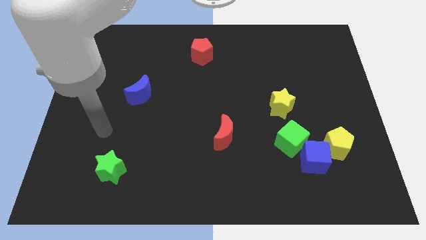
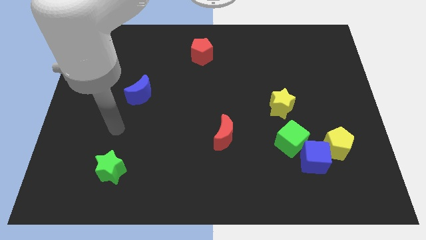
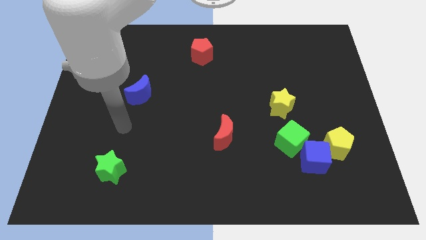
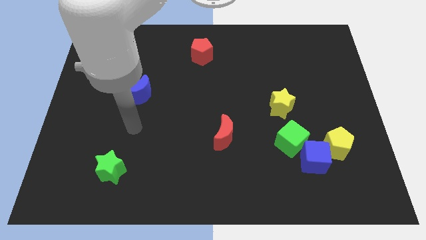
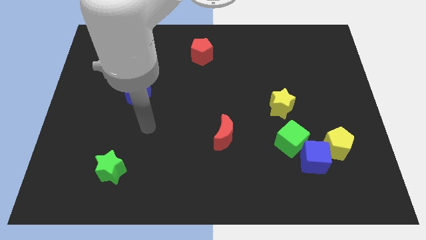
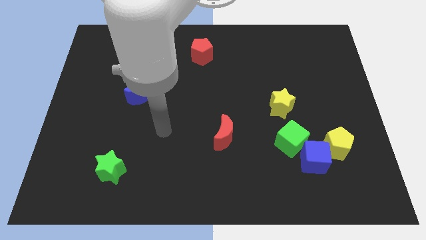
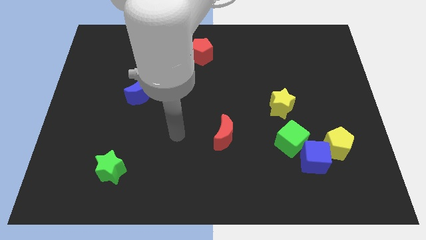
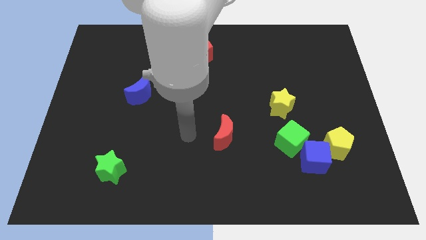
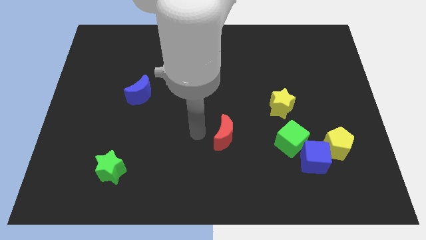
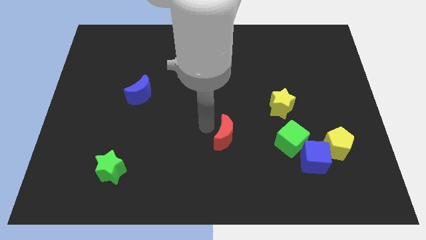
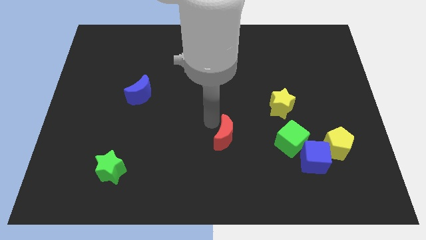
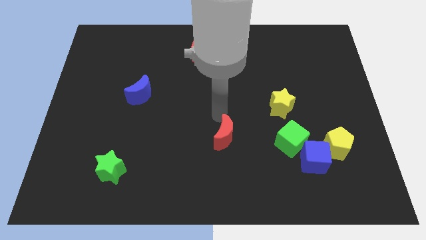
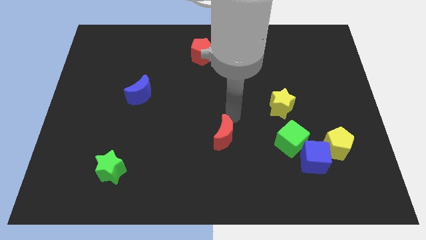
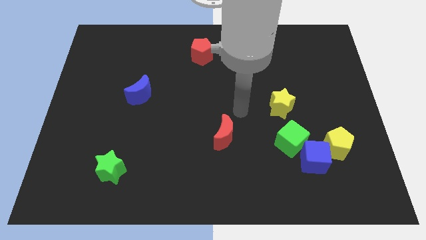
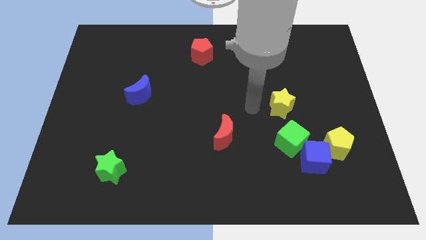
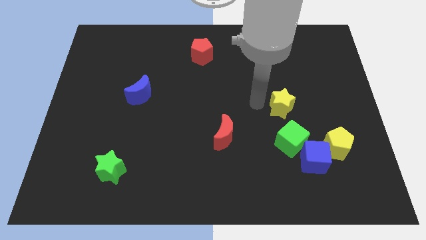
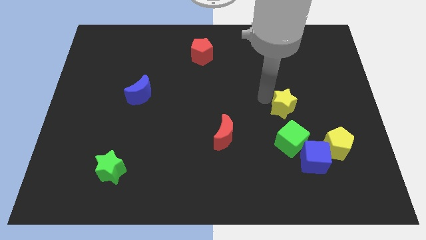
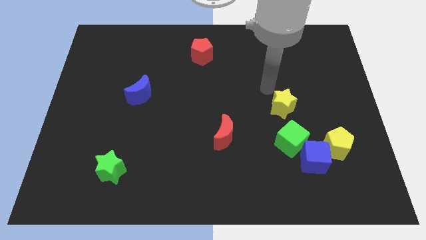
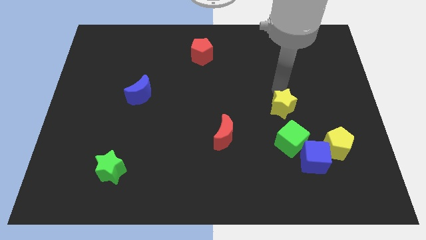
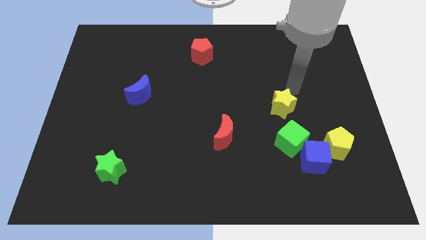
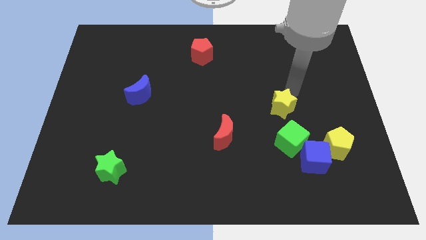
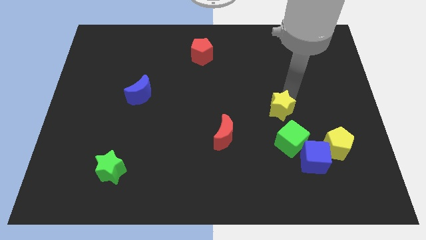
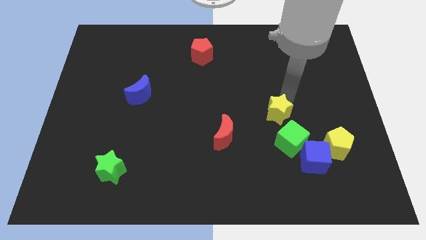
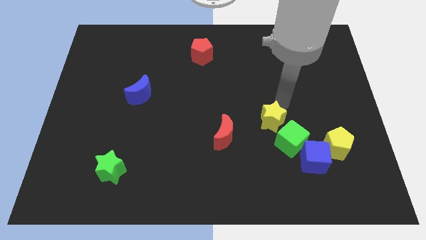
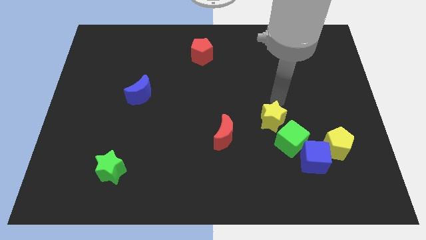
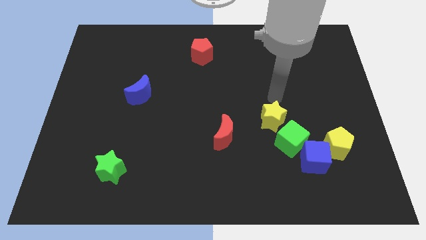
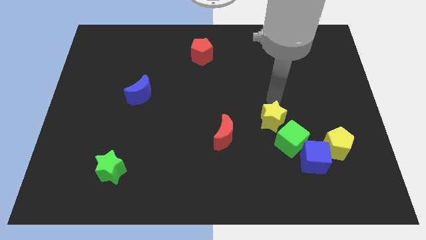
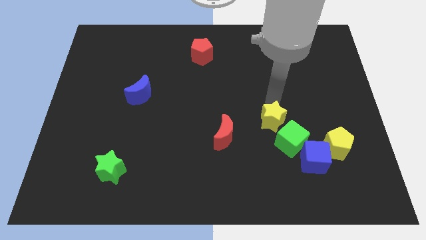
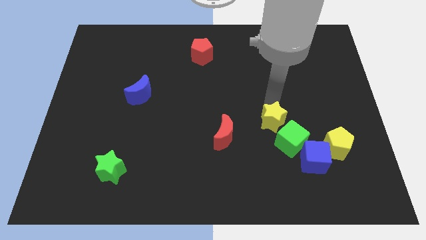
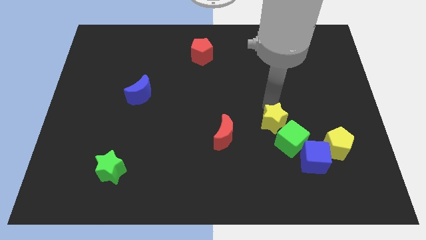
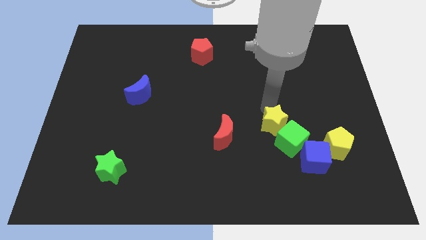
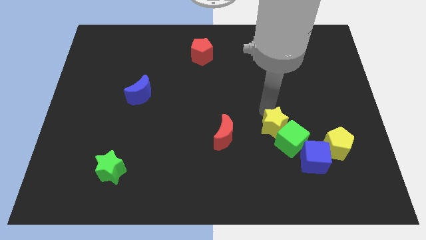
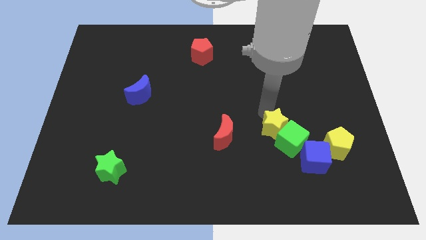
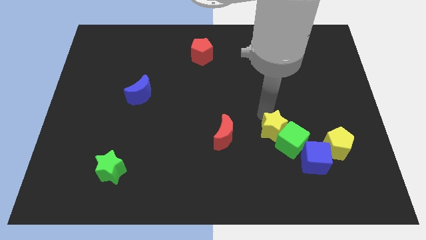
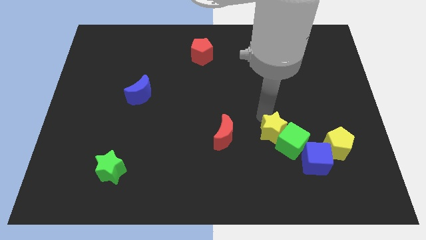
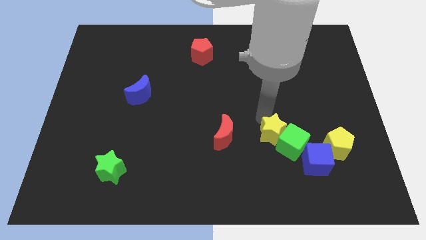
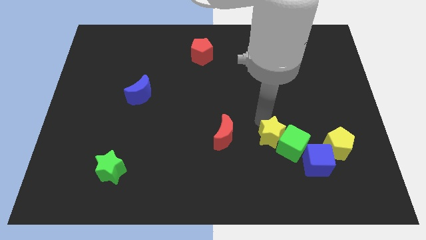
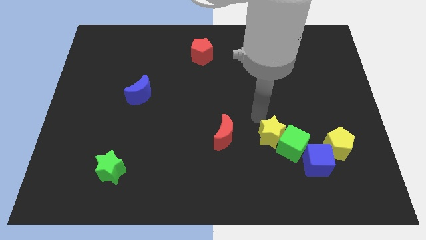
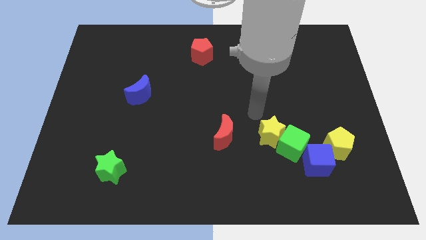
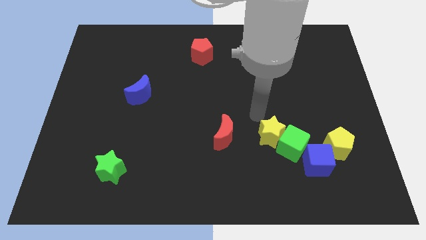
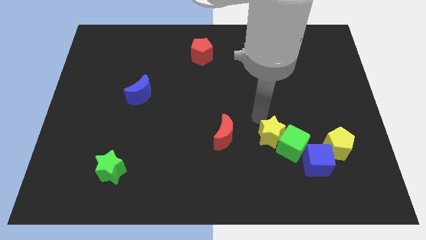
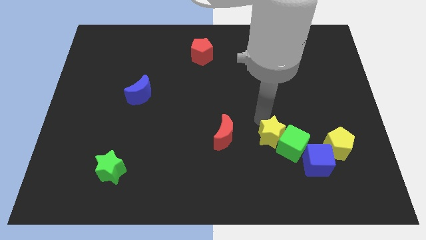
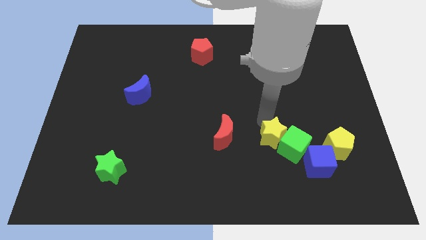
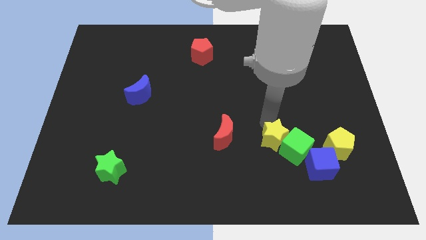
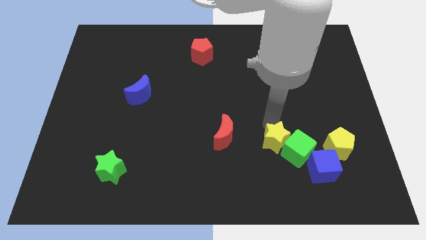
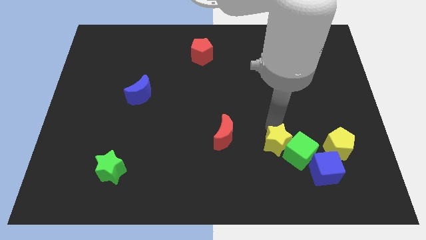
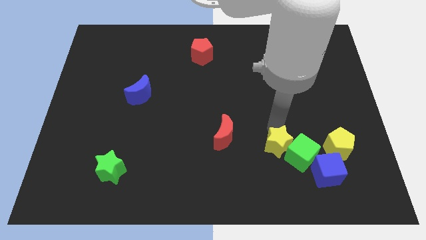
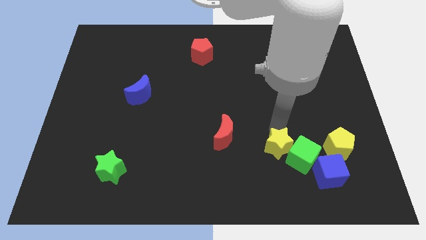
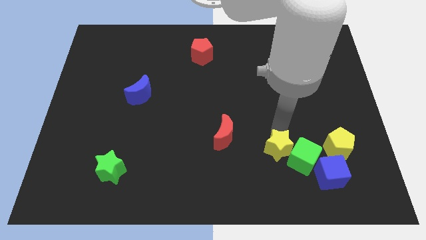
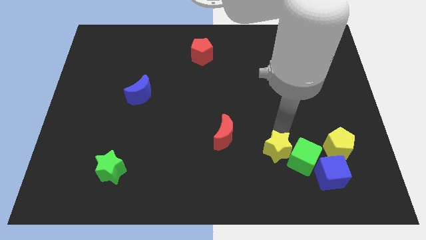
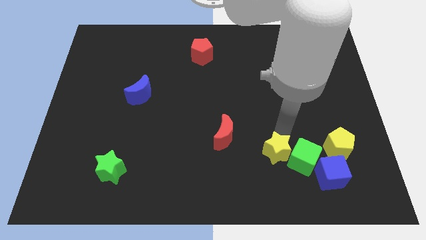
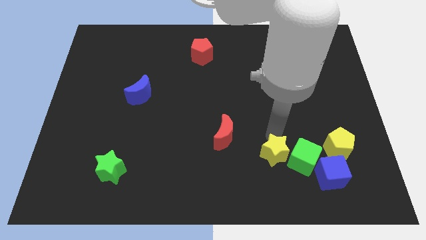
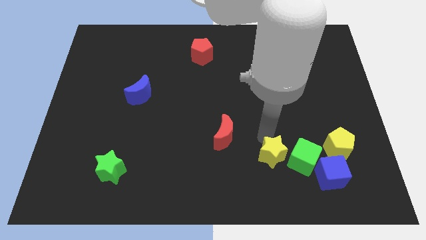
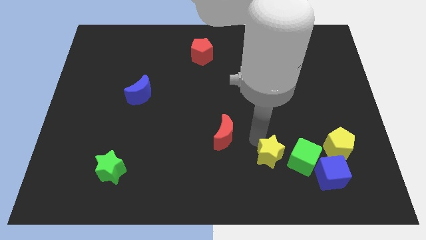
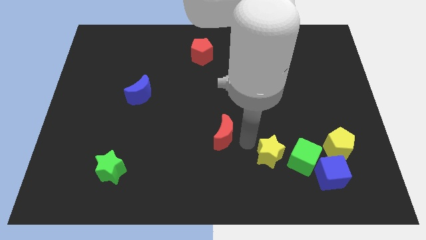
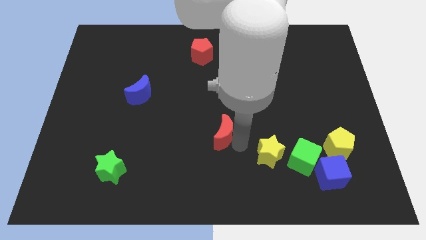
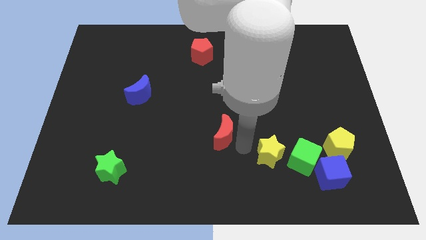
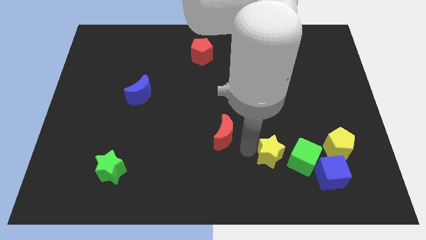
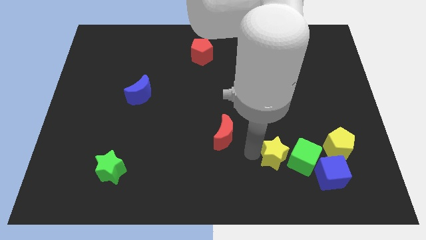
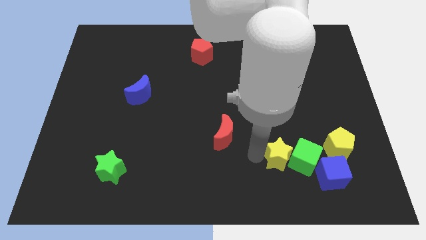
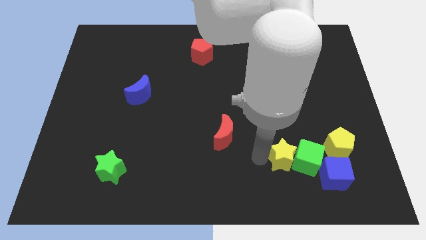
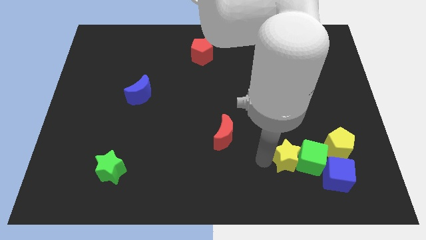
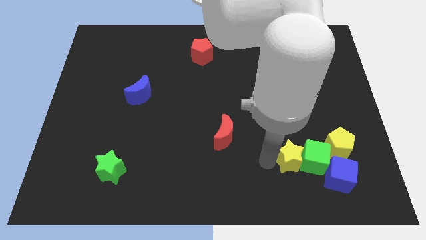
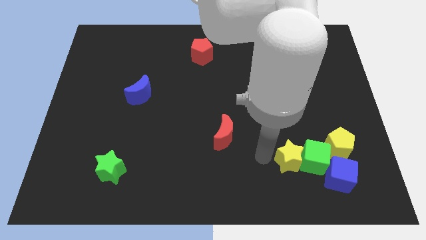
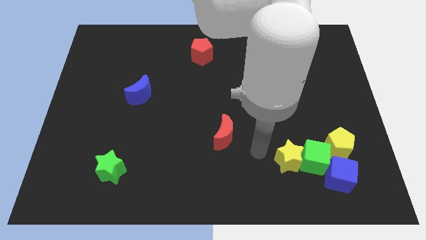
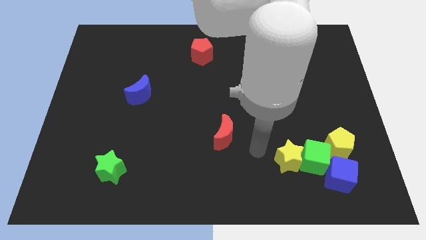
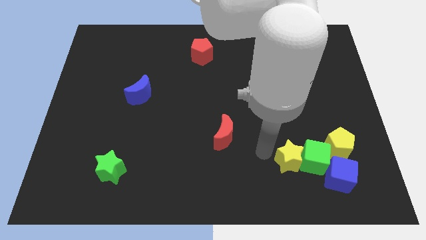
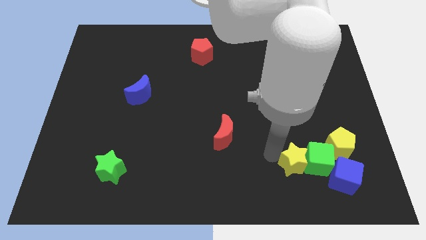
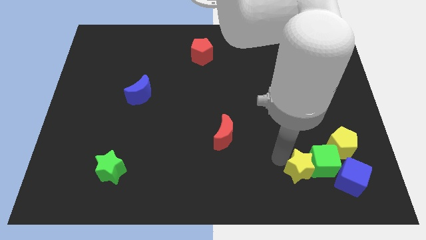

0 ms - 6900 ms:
move the yellow star diagonally down and to the left of the yellow pentagon
